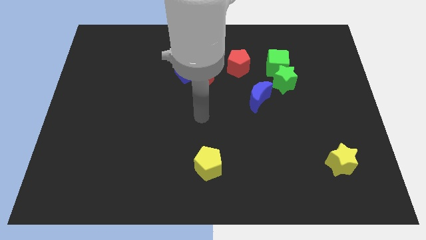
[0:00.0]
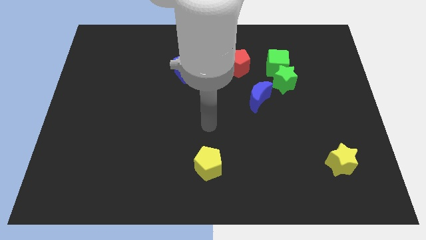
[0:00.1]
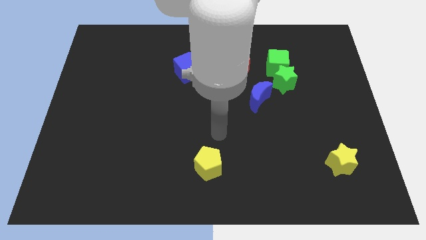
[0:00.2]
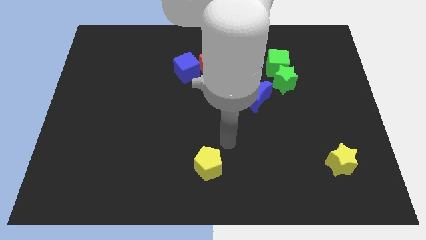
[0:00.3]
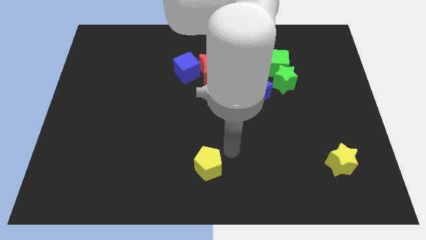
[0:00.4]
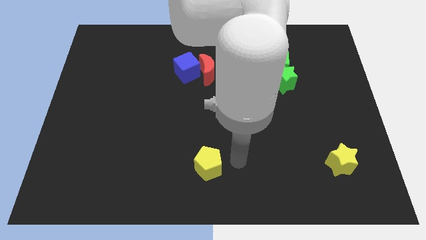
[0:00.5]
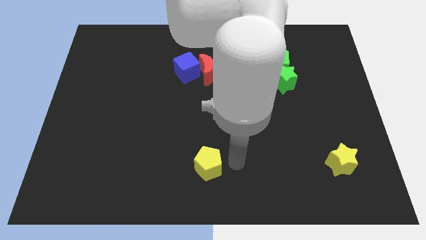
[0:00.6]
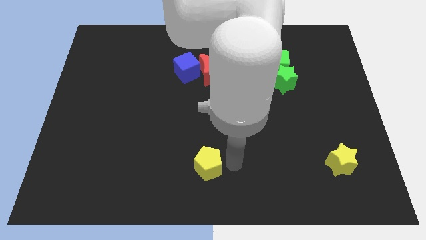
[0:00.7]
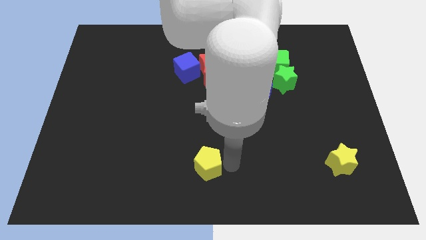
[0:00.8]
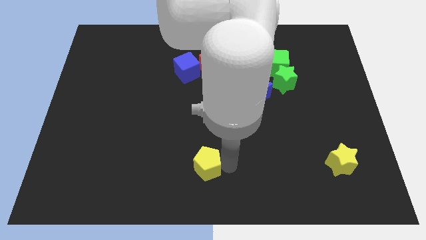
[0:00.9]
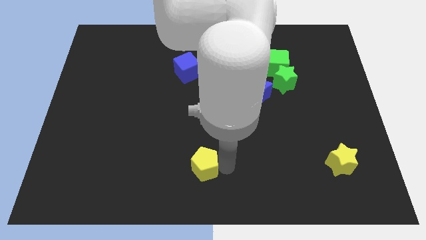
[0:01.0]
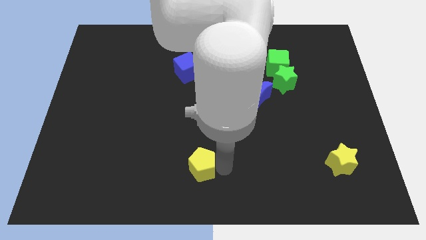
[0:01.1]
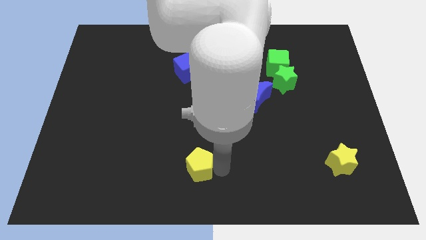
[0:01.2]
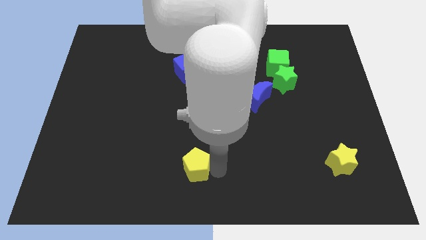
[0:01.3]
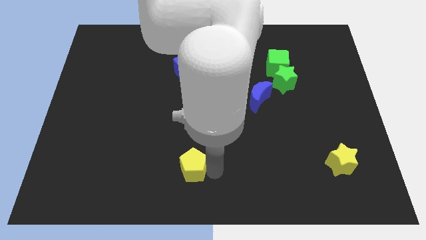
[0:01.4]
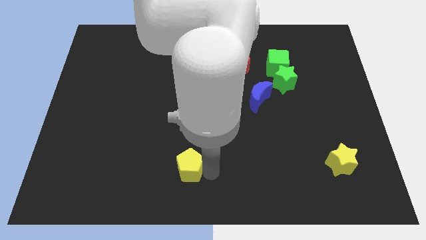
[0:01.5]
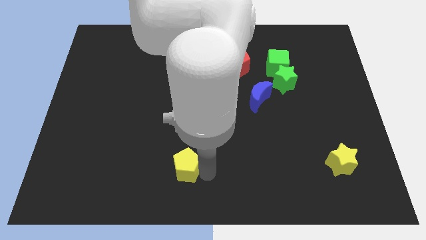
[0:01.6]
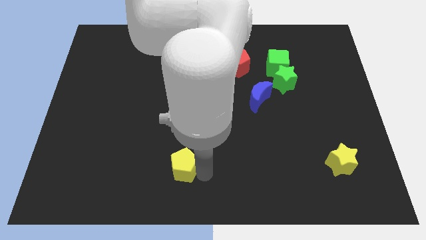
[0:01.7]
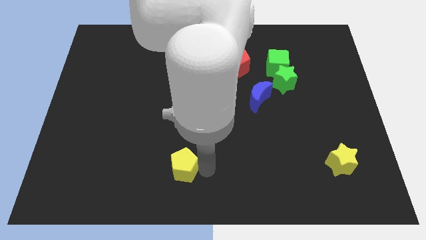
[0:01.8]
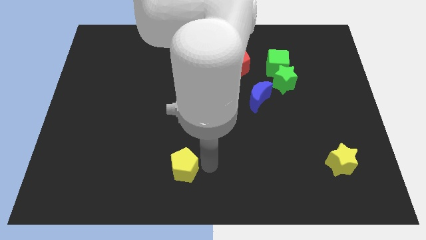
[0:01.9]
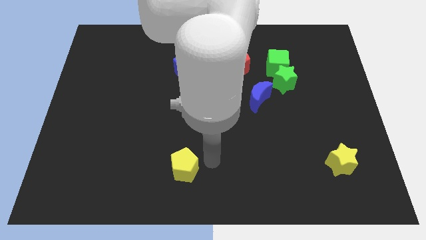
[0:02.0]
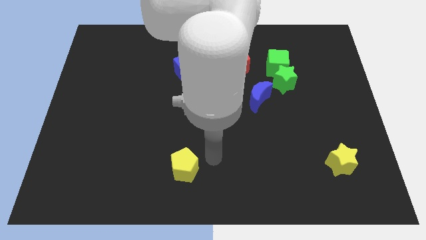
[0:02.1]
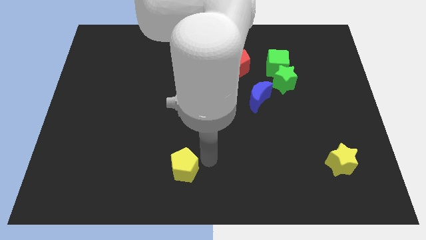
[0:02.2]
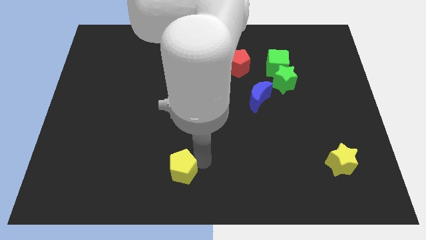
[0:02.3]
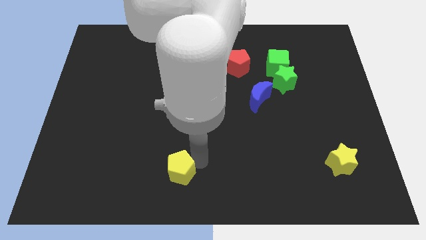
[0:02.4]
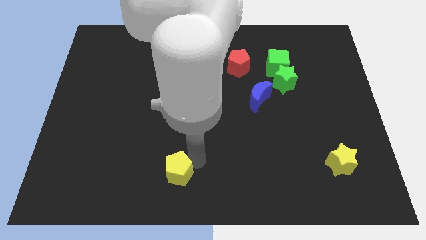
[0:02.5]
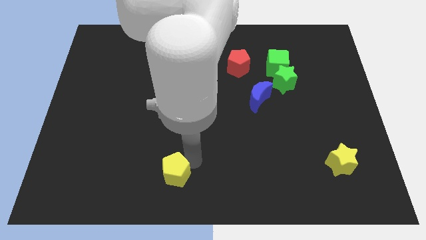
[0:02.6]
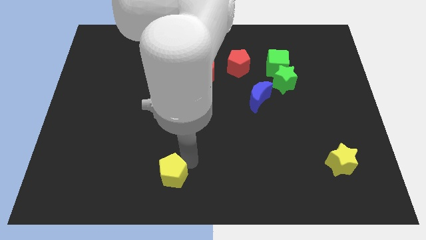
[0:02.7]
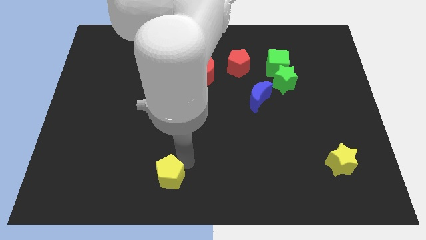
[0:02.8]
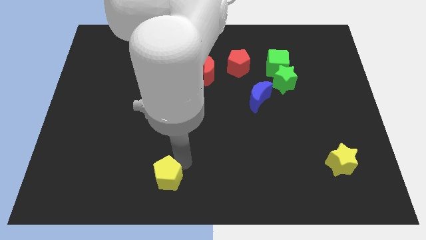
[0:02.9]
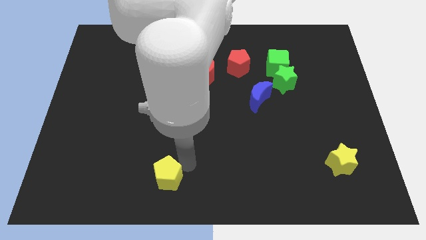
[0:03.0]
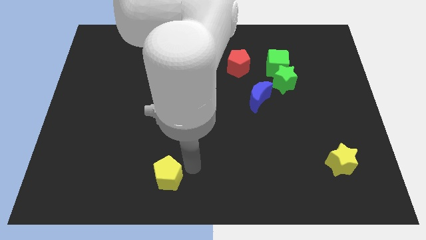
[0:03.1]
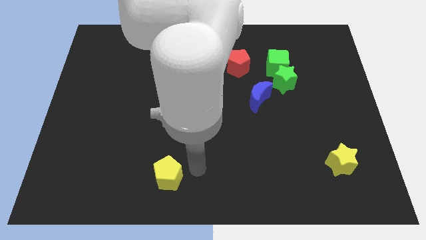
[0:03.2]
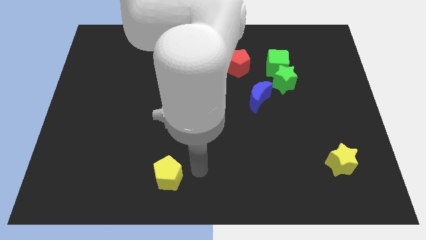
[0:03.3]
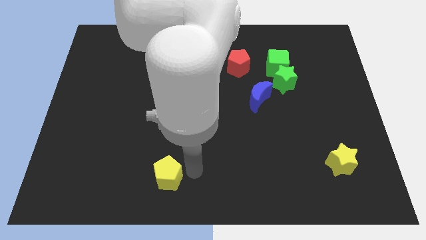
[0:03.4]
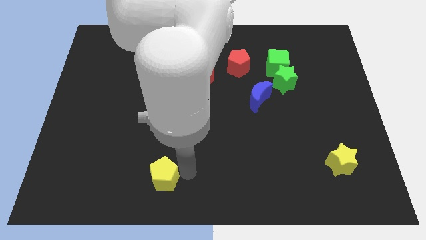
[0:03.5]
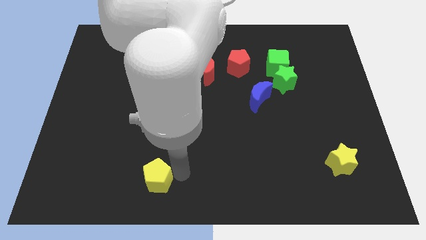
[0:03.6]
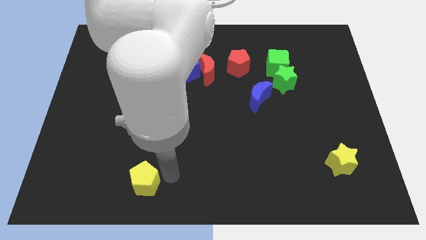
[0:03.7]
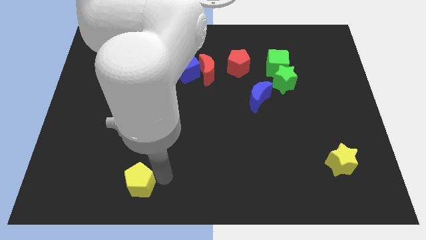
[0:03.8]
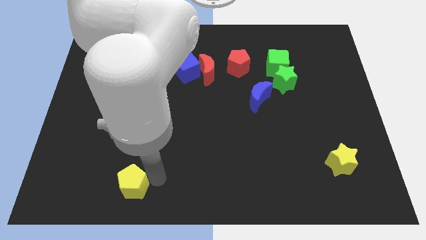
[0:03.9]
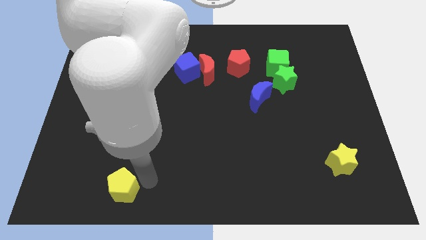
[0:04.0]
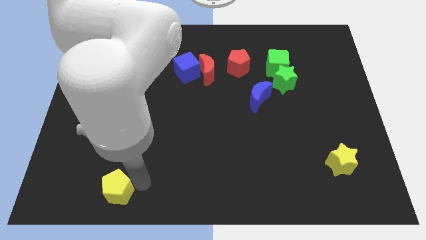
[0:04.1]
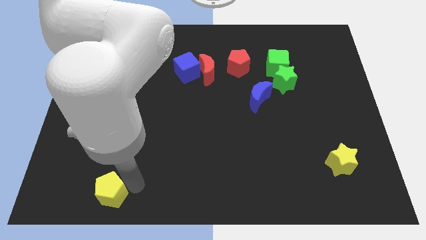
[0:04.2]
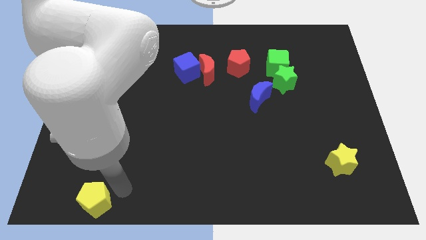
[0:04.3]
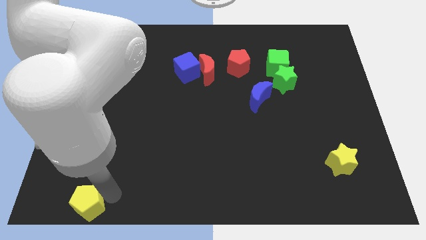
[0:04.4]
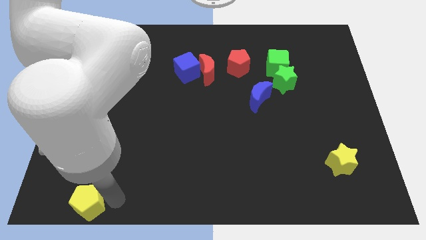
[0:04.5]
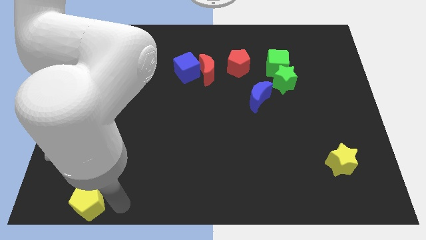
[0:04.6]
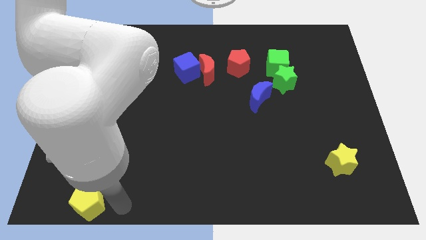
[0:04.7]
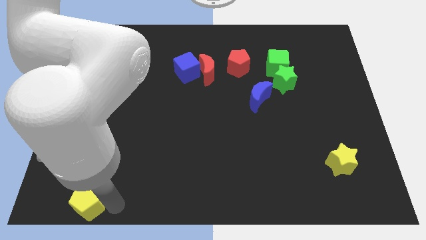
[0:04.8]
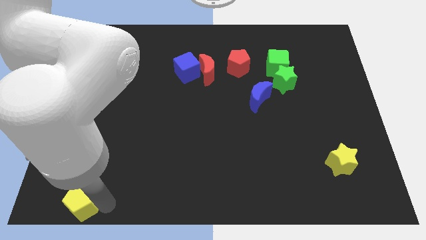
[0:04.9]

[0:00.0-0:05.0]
slide the yellow pentagon to the bottom left corner

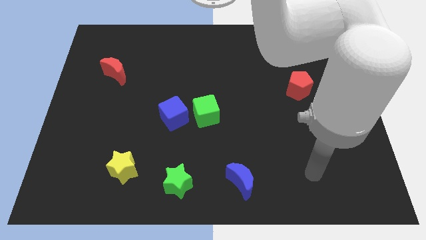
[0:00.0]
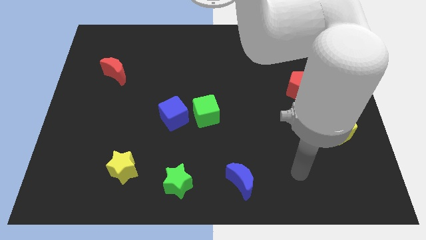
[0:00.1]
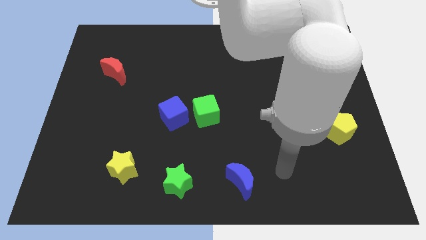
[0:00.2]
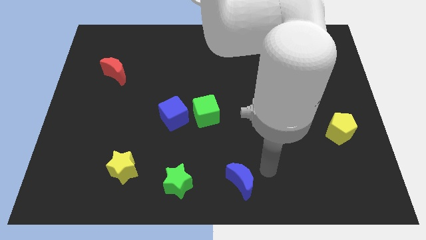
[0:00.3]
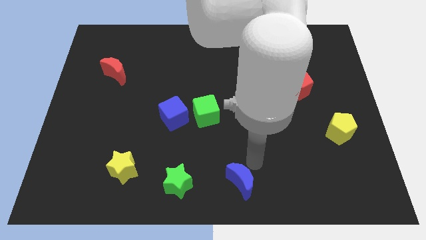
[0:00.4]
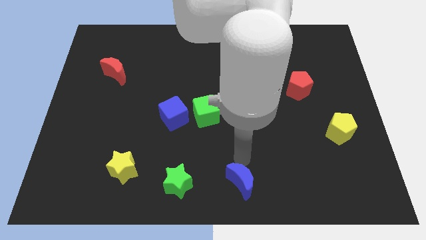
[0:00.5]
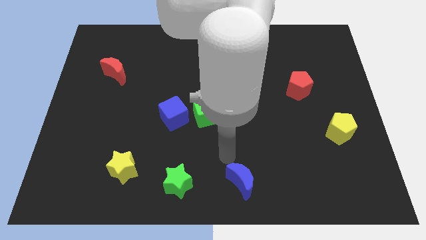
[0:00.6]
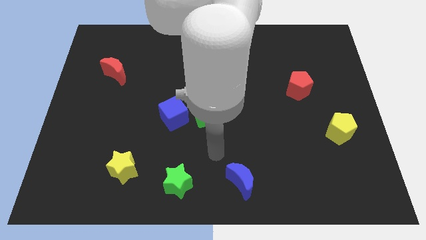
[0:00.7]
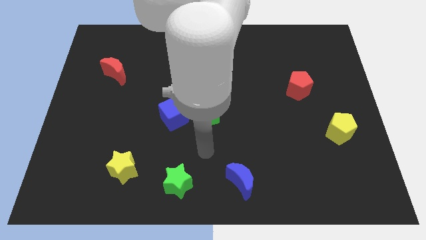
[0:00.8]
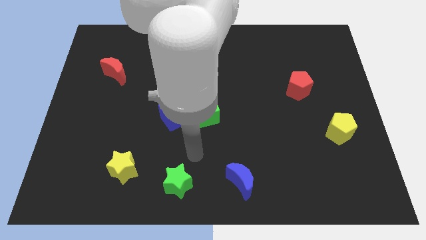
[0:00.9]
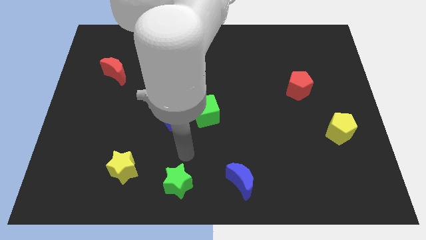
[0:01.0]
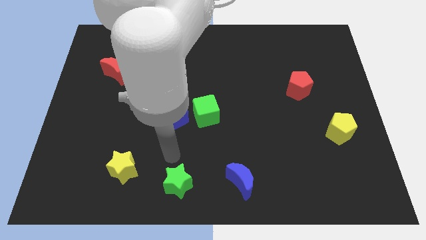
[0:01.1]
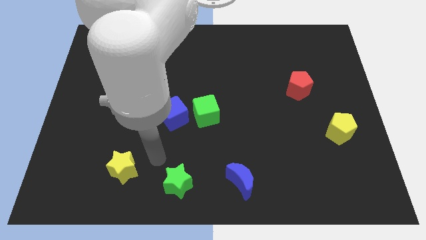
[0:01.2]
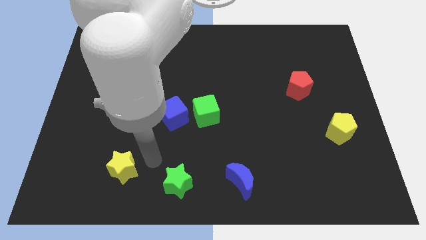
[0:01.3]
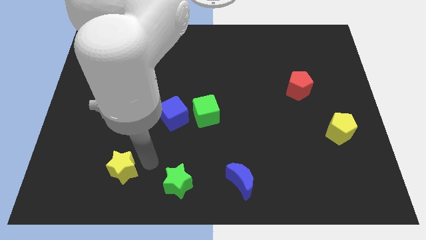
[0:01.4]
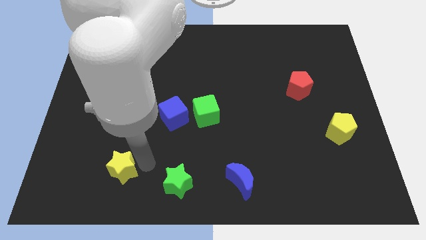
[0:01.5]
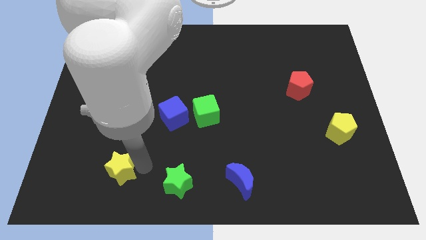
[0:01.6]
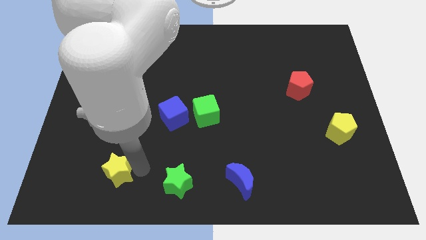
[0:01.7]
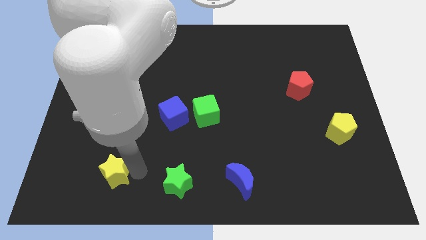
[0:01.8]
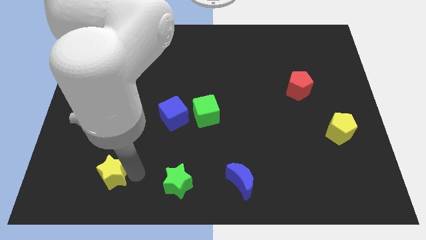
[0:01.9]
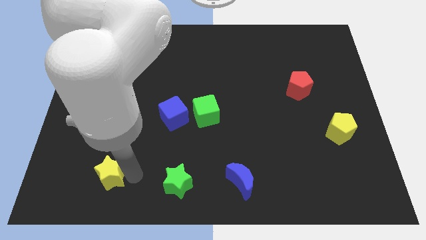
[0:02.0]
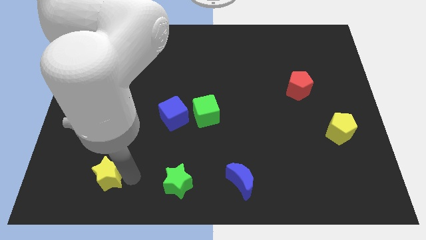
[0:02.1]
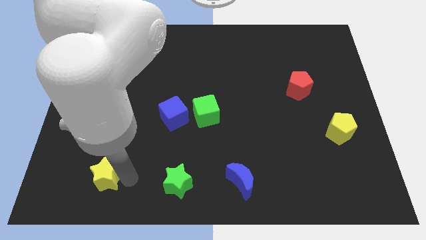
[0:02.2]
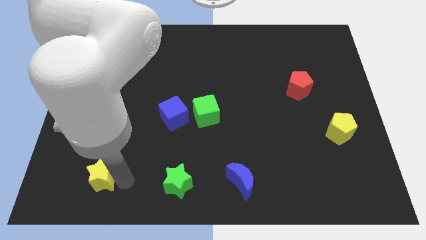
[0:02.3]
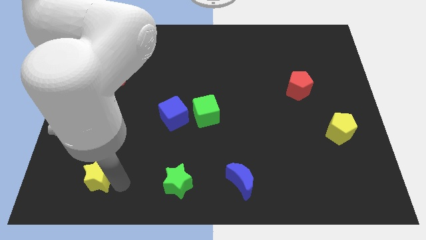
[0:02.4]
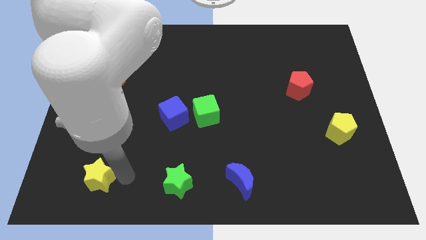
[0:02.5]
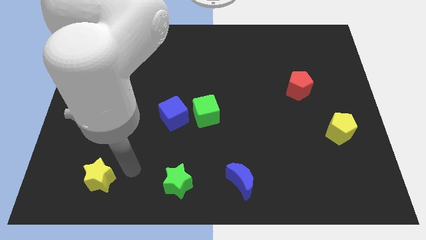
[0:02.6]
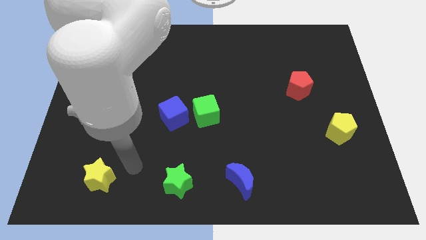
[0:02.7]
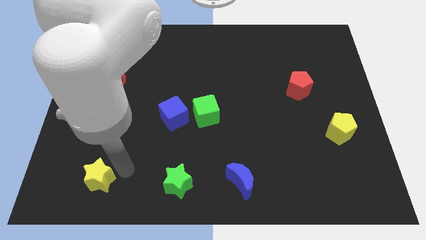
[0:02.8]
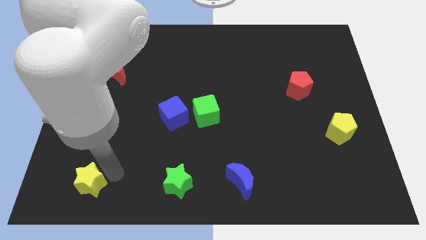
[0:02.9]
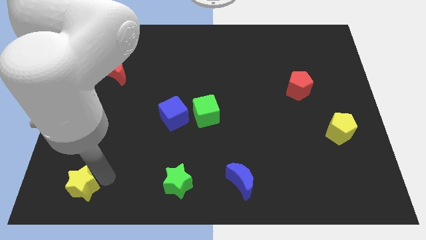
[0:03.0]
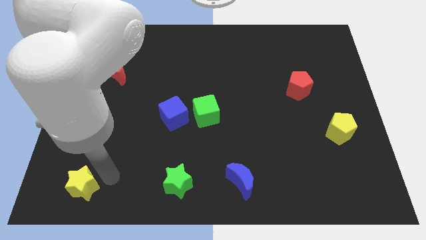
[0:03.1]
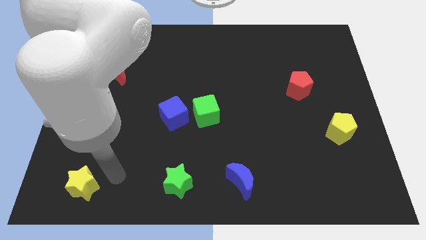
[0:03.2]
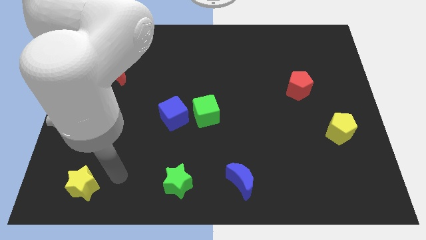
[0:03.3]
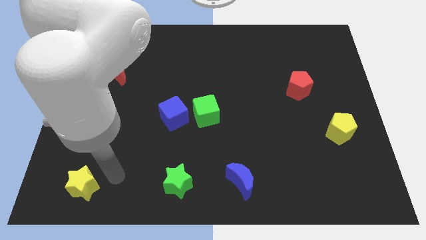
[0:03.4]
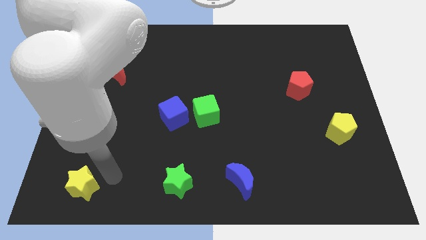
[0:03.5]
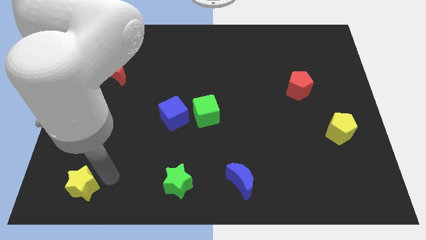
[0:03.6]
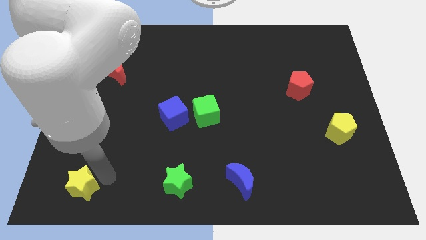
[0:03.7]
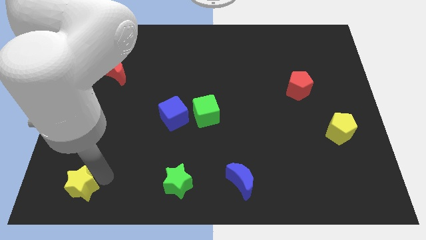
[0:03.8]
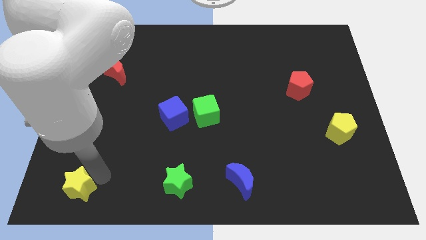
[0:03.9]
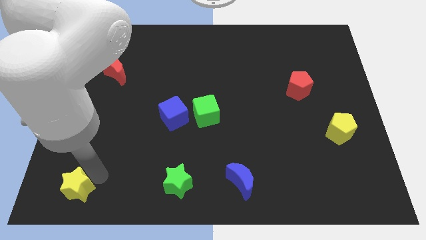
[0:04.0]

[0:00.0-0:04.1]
push the yellow star to the lower left corner
